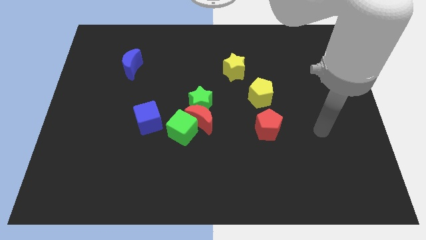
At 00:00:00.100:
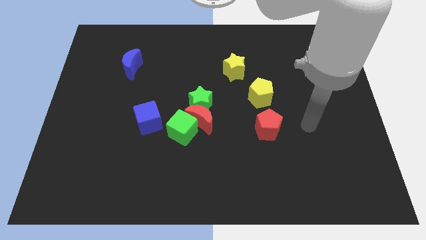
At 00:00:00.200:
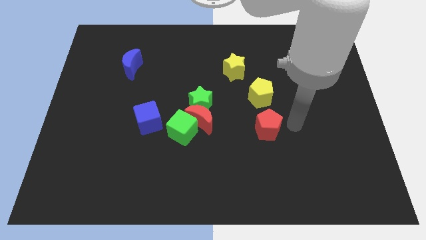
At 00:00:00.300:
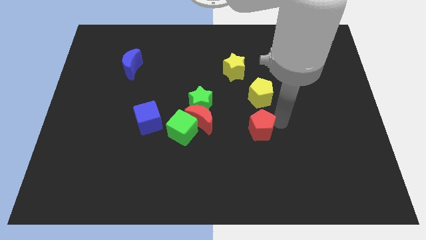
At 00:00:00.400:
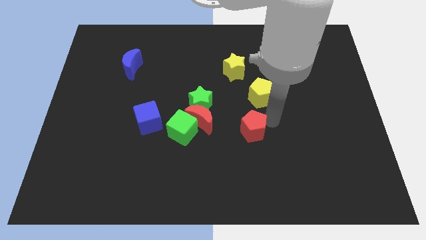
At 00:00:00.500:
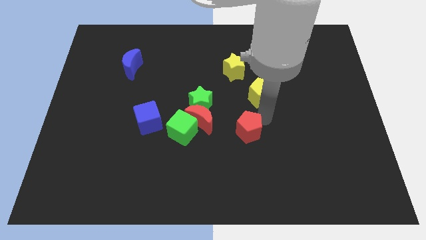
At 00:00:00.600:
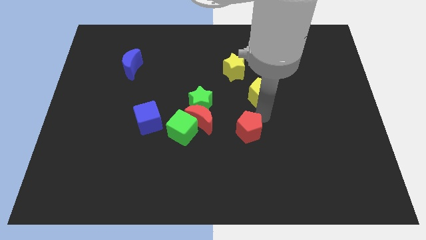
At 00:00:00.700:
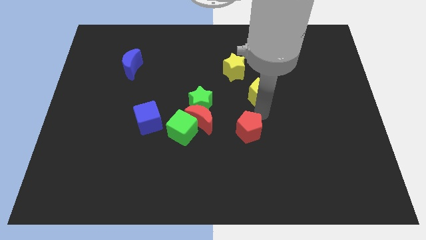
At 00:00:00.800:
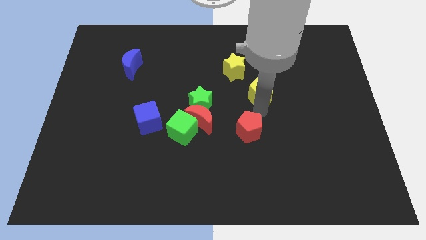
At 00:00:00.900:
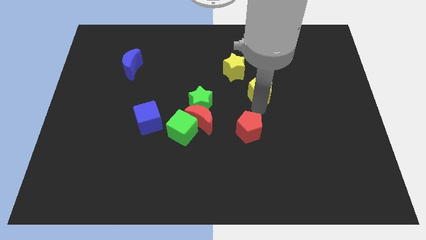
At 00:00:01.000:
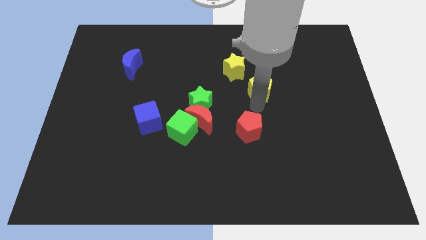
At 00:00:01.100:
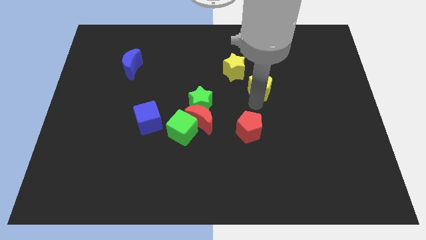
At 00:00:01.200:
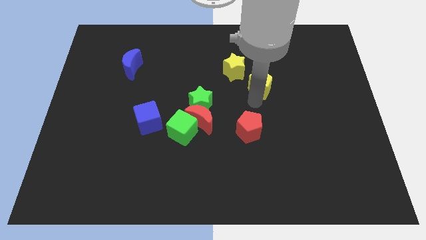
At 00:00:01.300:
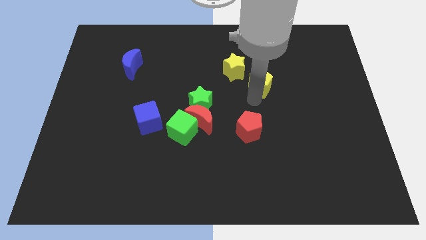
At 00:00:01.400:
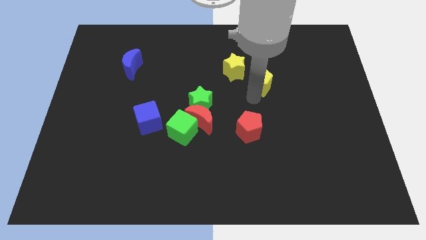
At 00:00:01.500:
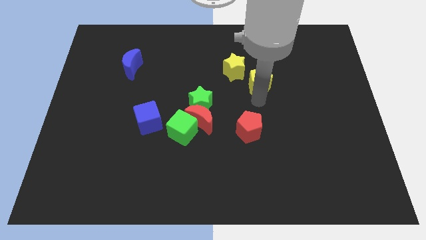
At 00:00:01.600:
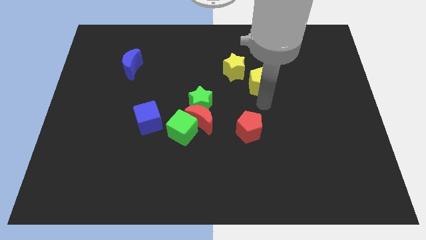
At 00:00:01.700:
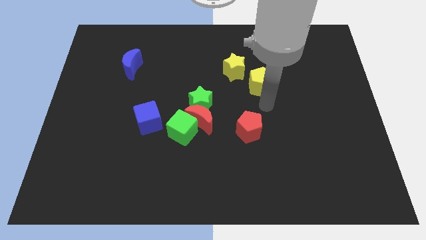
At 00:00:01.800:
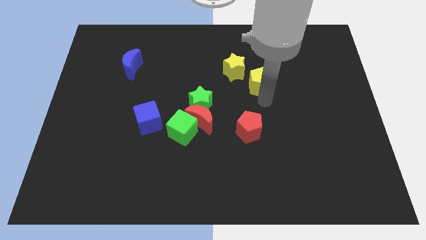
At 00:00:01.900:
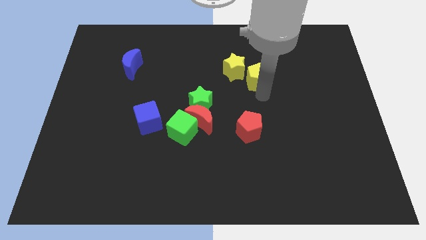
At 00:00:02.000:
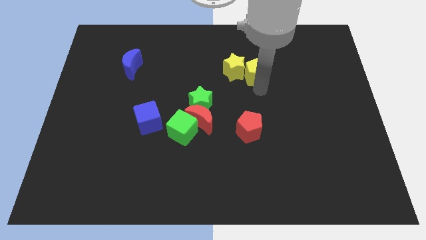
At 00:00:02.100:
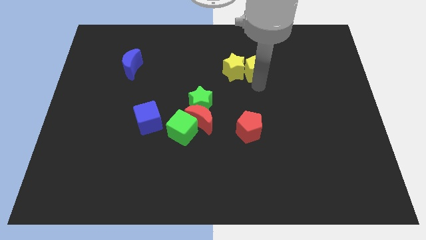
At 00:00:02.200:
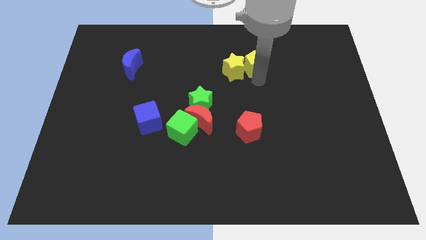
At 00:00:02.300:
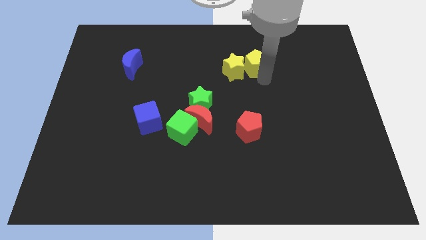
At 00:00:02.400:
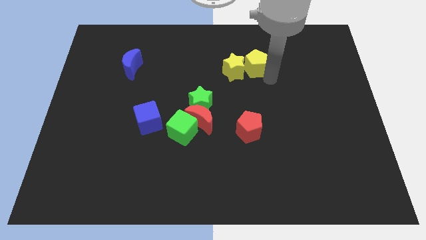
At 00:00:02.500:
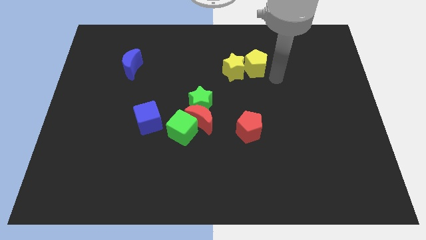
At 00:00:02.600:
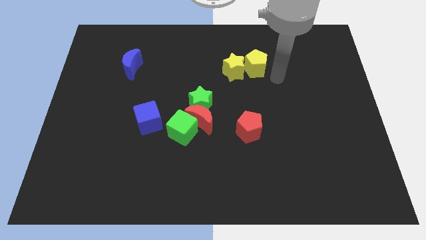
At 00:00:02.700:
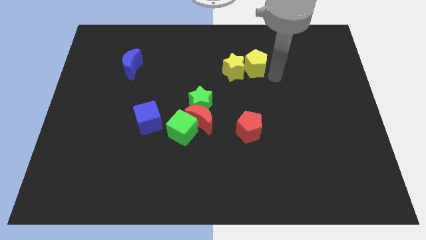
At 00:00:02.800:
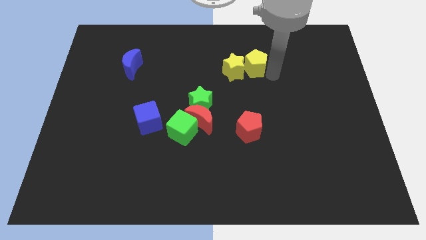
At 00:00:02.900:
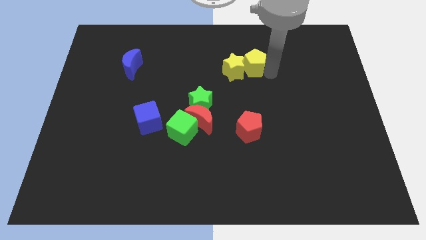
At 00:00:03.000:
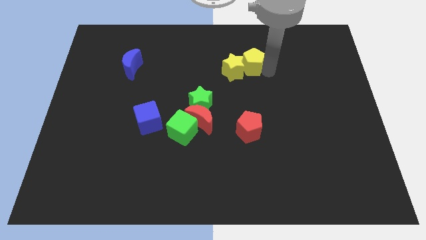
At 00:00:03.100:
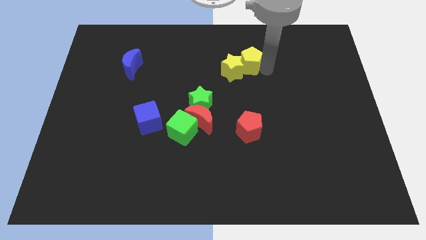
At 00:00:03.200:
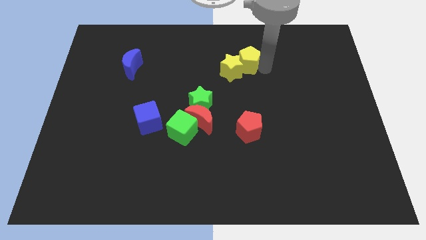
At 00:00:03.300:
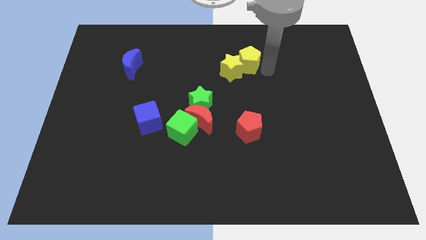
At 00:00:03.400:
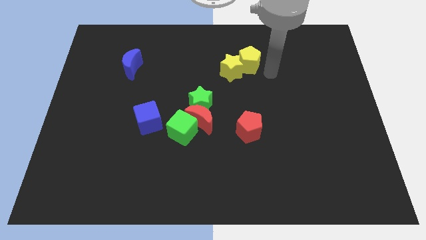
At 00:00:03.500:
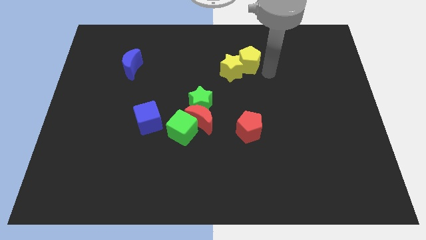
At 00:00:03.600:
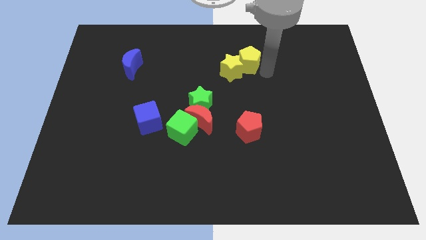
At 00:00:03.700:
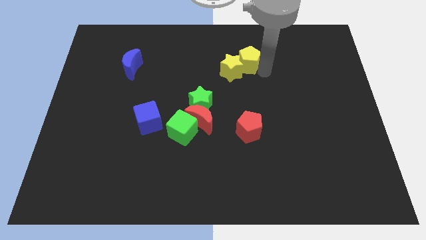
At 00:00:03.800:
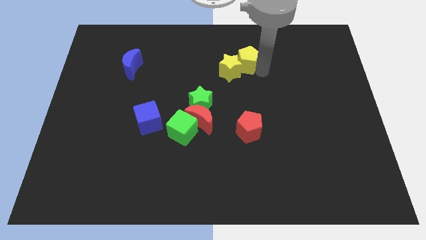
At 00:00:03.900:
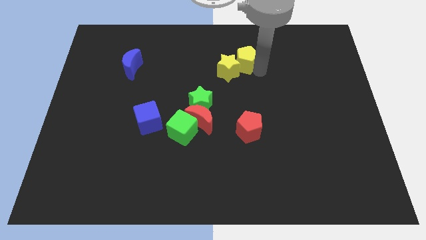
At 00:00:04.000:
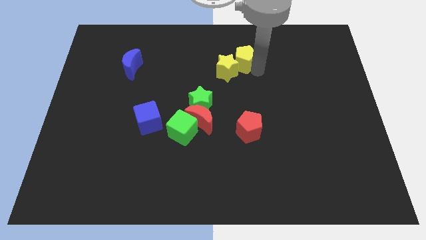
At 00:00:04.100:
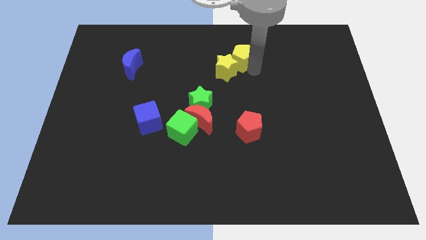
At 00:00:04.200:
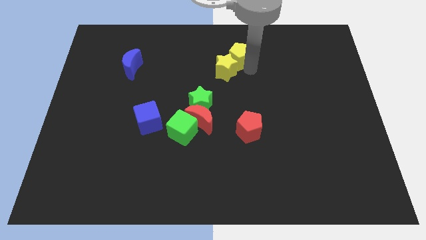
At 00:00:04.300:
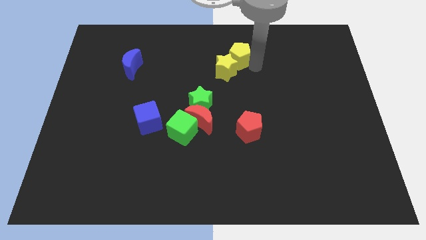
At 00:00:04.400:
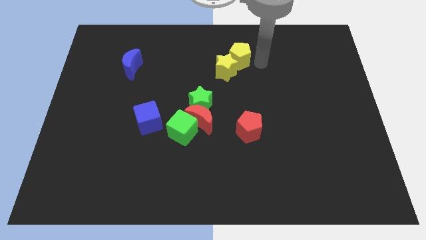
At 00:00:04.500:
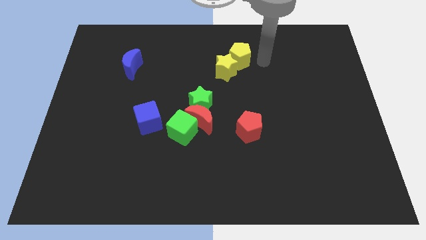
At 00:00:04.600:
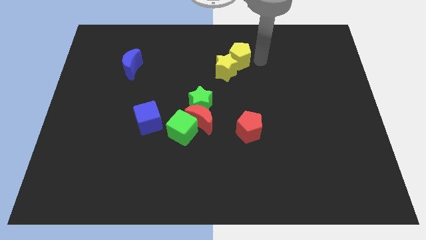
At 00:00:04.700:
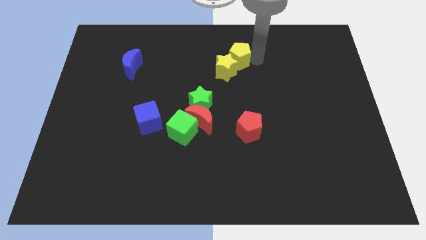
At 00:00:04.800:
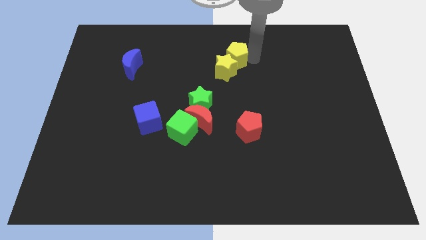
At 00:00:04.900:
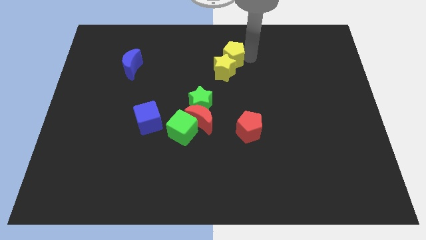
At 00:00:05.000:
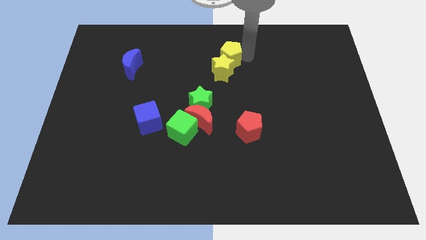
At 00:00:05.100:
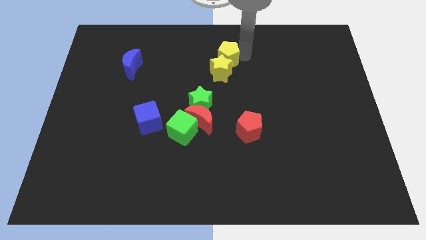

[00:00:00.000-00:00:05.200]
push the yellow pentagon to the top left of the yellow star

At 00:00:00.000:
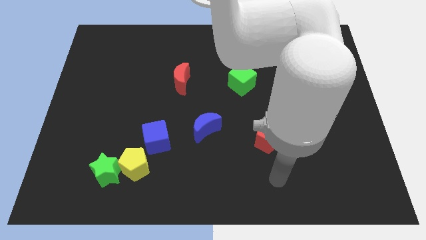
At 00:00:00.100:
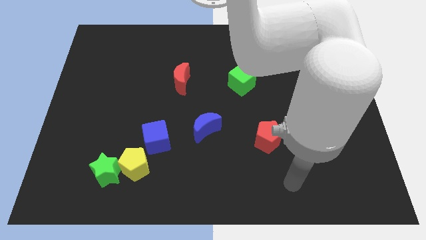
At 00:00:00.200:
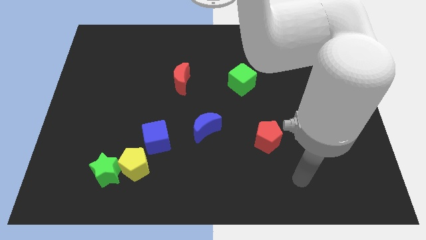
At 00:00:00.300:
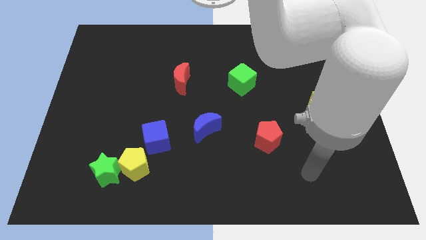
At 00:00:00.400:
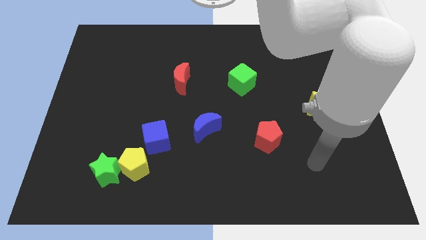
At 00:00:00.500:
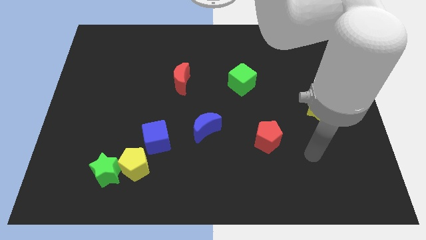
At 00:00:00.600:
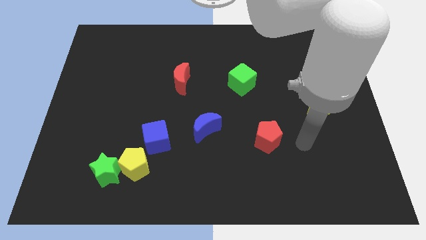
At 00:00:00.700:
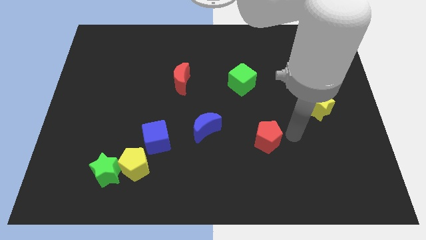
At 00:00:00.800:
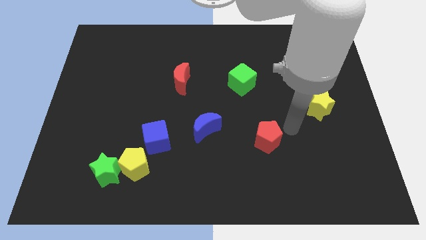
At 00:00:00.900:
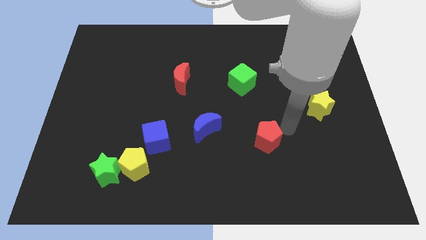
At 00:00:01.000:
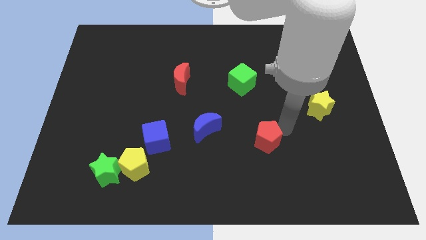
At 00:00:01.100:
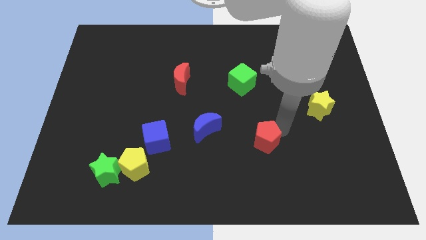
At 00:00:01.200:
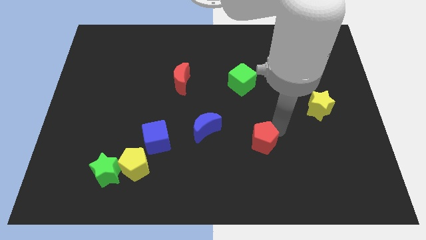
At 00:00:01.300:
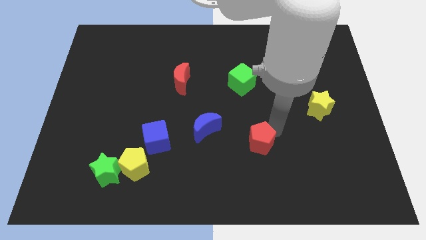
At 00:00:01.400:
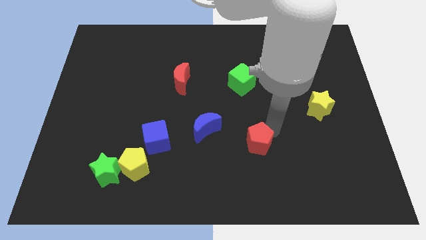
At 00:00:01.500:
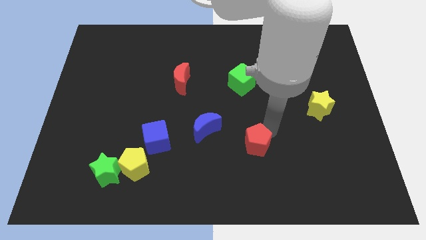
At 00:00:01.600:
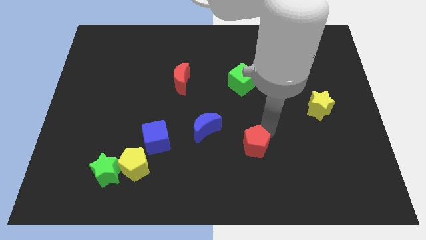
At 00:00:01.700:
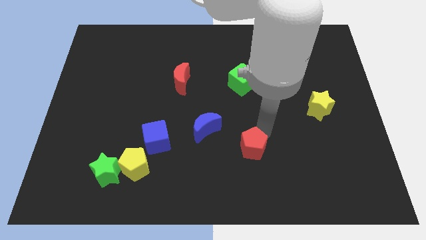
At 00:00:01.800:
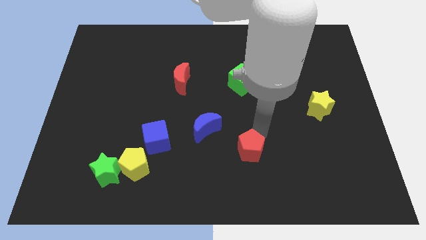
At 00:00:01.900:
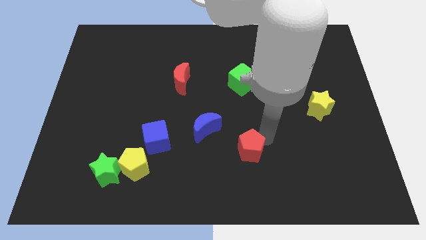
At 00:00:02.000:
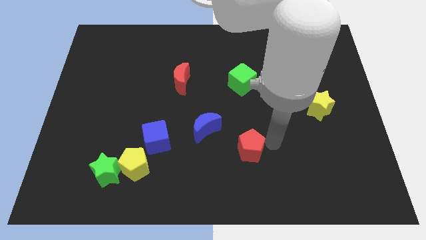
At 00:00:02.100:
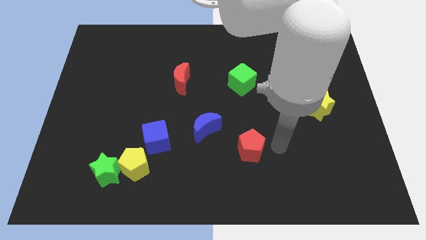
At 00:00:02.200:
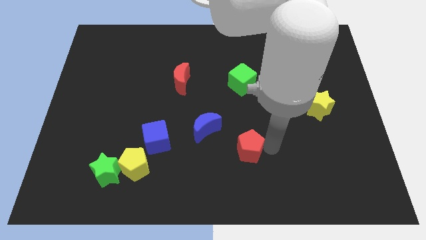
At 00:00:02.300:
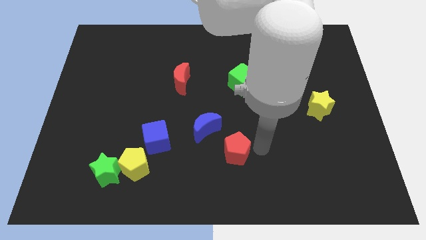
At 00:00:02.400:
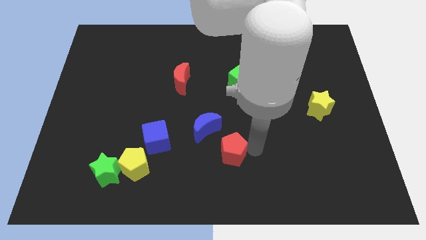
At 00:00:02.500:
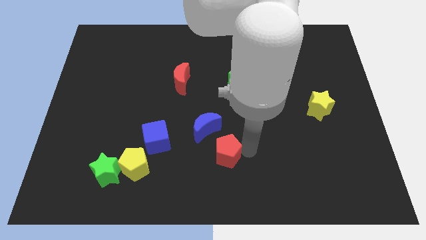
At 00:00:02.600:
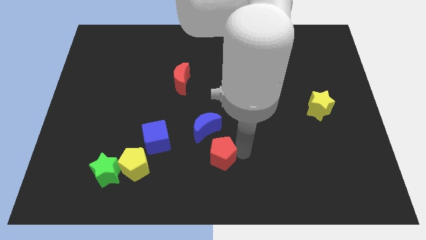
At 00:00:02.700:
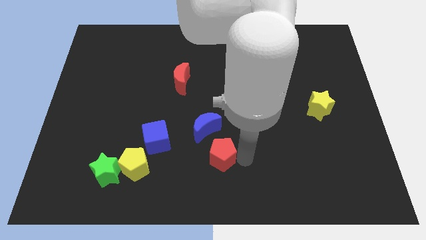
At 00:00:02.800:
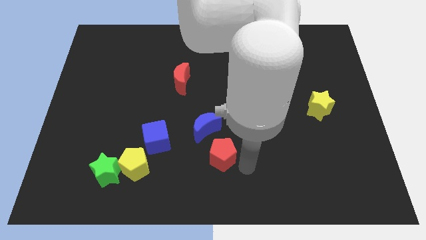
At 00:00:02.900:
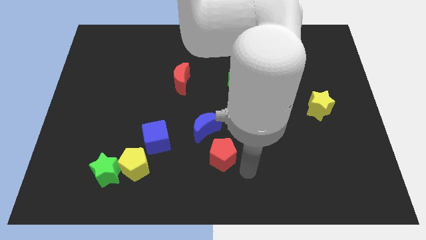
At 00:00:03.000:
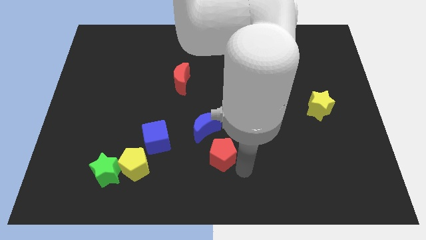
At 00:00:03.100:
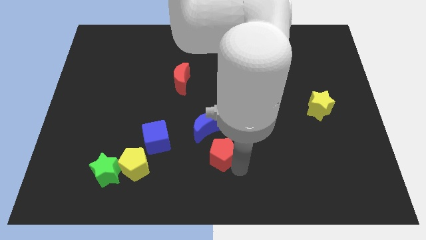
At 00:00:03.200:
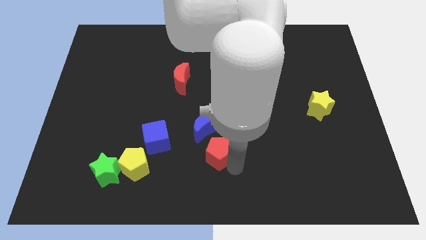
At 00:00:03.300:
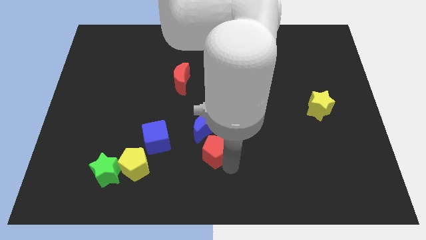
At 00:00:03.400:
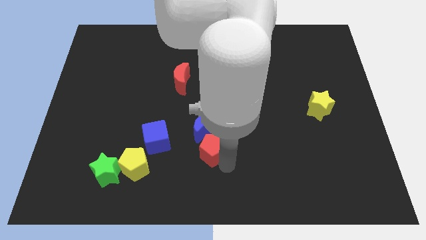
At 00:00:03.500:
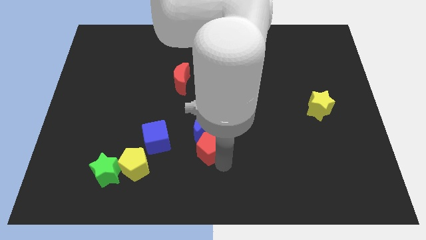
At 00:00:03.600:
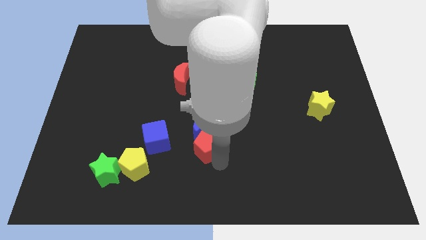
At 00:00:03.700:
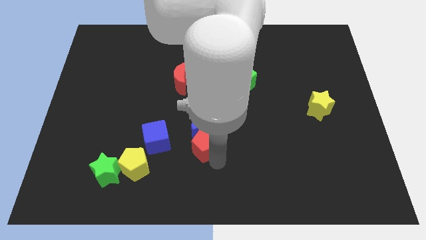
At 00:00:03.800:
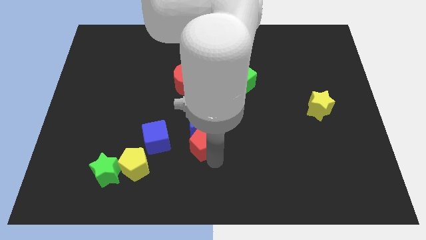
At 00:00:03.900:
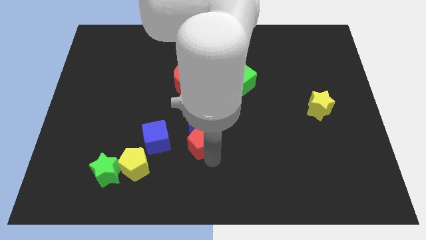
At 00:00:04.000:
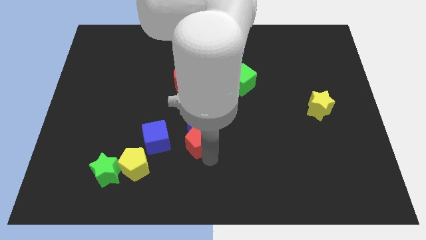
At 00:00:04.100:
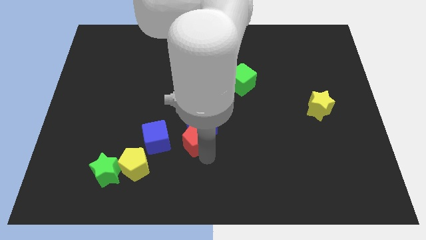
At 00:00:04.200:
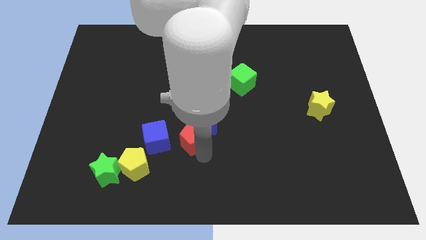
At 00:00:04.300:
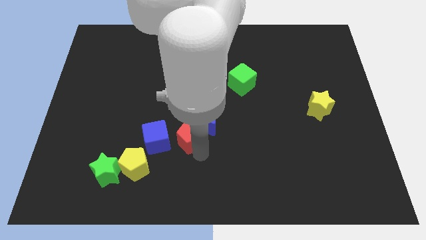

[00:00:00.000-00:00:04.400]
put the red pentagon to the top right side of the blue cube
